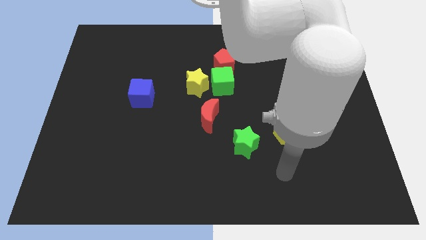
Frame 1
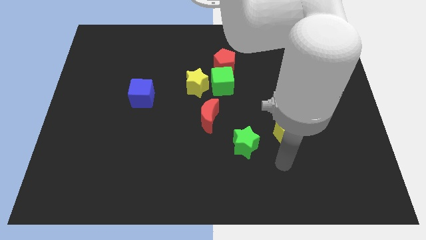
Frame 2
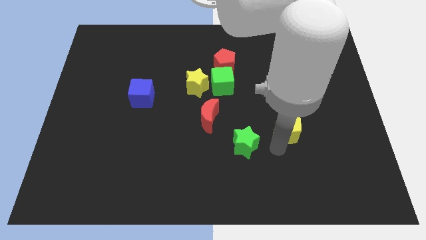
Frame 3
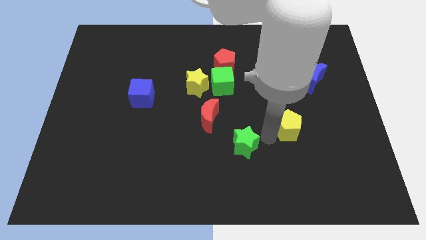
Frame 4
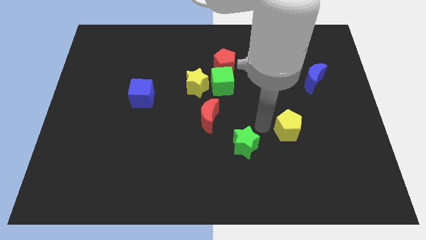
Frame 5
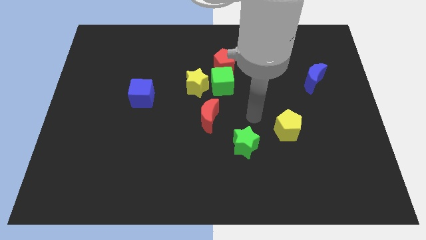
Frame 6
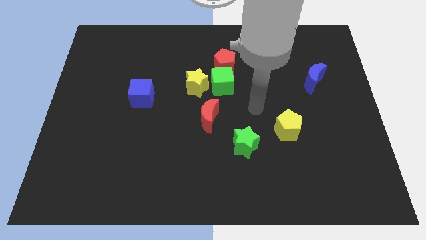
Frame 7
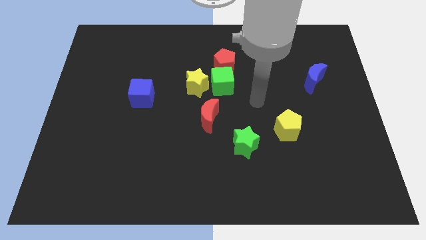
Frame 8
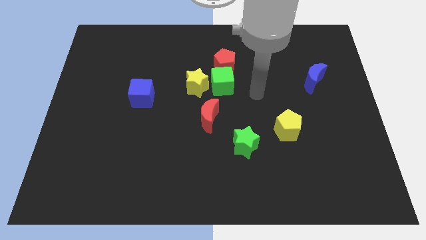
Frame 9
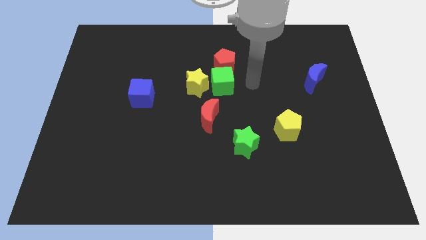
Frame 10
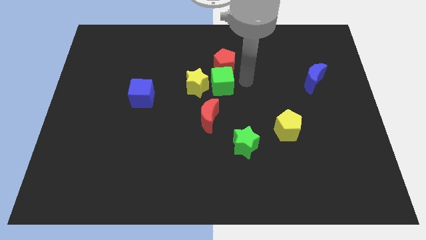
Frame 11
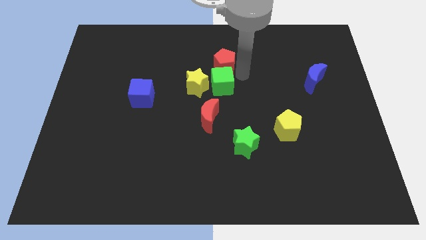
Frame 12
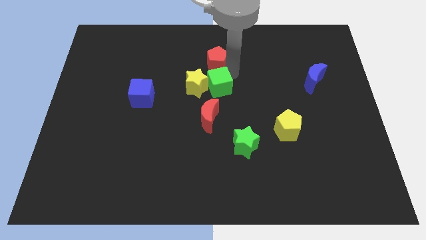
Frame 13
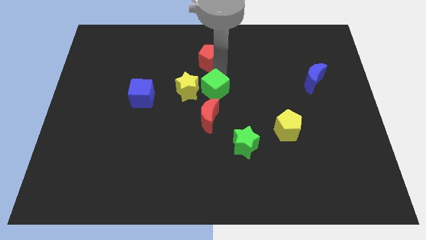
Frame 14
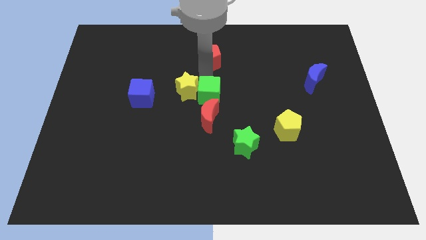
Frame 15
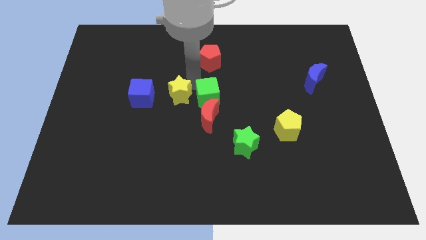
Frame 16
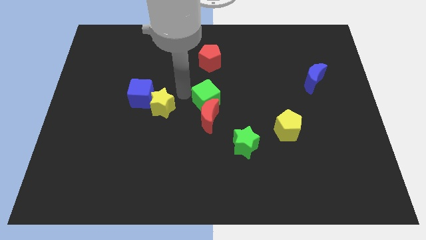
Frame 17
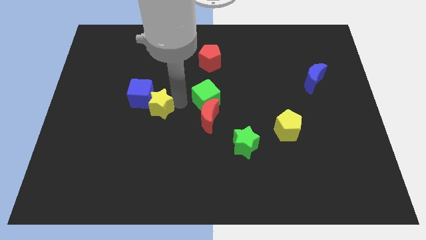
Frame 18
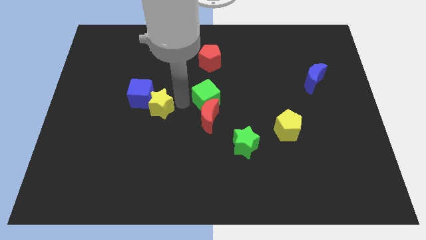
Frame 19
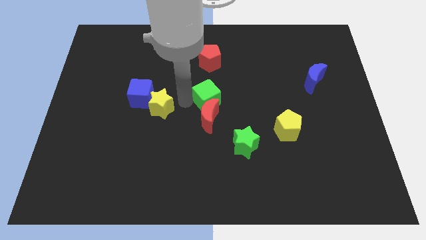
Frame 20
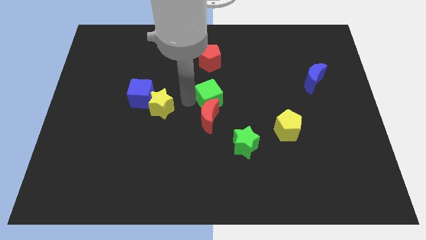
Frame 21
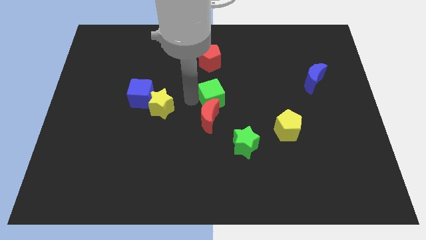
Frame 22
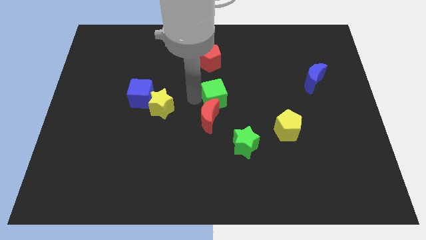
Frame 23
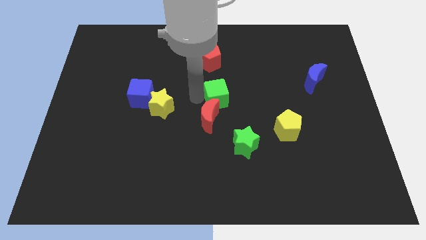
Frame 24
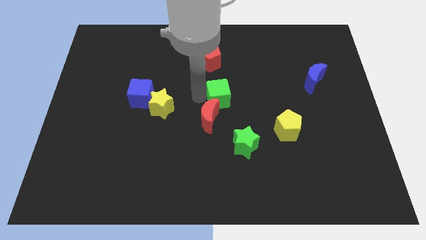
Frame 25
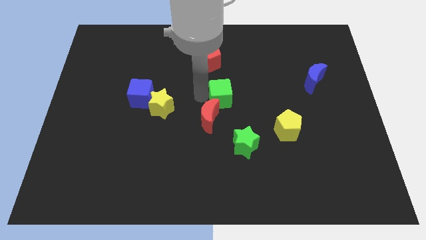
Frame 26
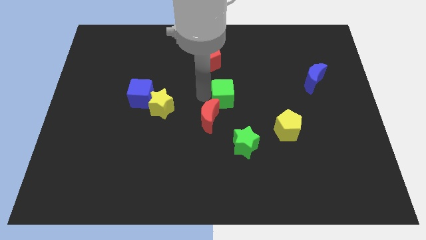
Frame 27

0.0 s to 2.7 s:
move the green cube away from the red pentagon and yellow star

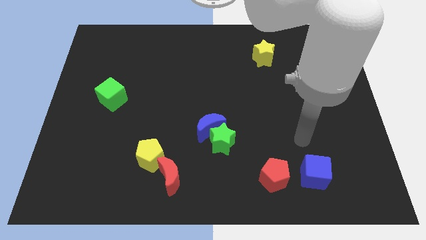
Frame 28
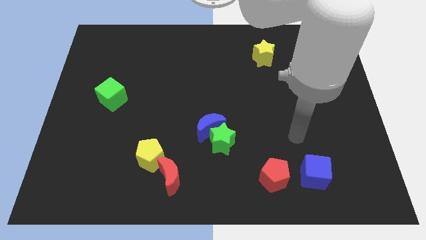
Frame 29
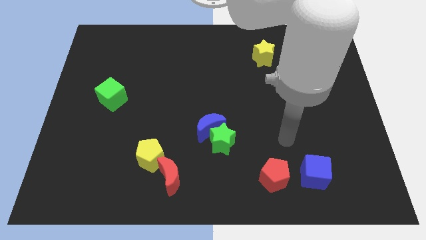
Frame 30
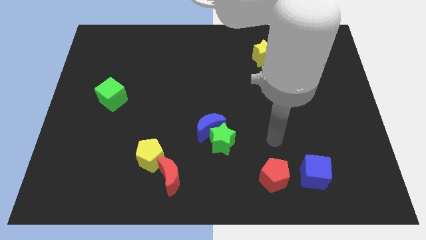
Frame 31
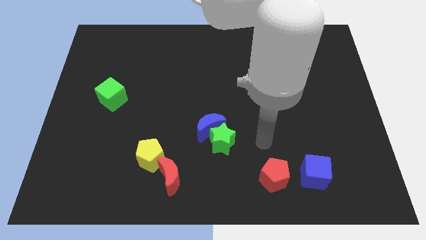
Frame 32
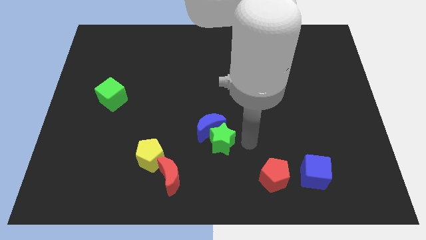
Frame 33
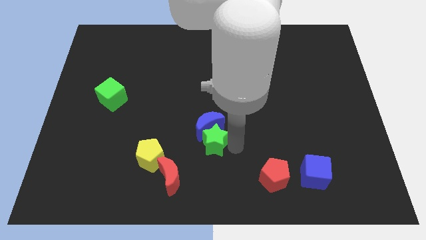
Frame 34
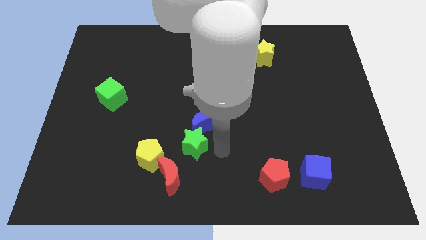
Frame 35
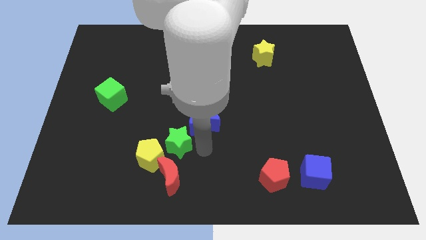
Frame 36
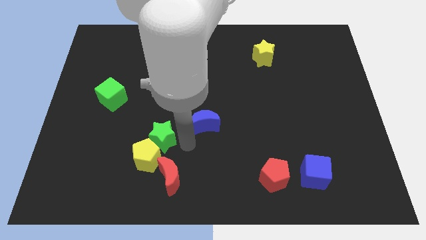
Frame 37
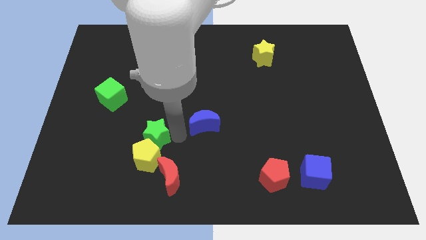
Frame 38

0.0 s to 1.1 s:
separate the blue moon from the green star

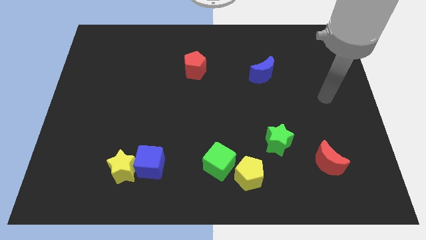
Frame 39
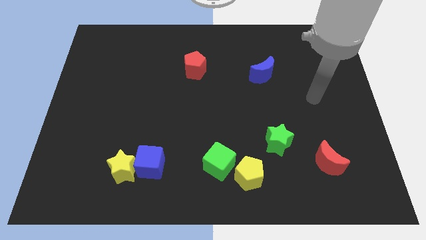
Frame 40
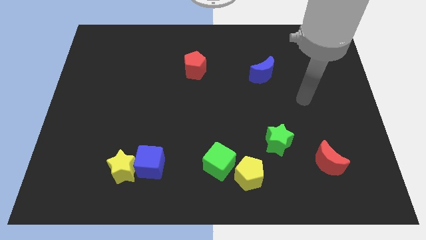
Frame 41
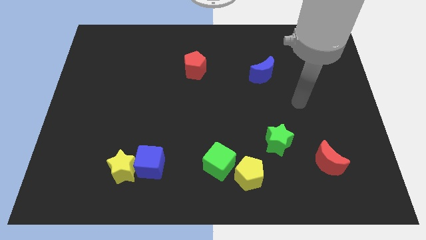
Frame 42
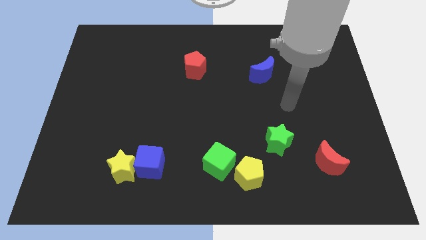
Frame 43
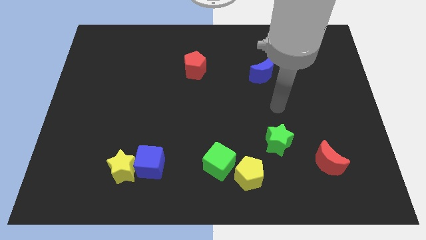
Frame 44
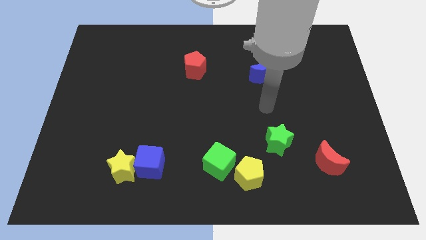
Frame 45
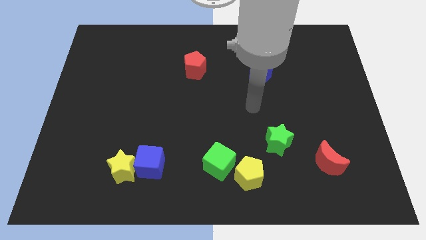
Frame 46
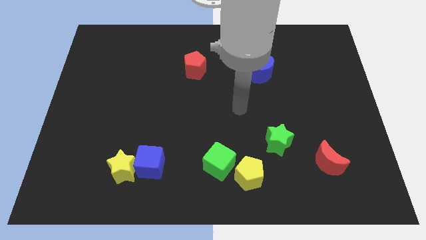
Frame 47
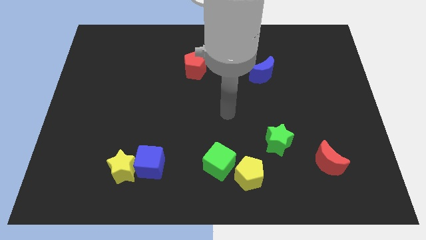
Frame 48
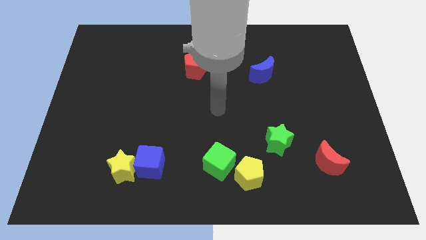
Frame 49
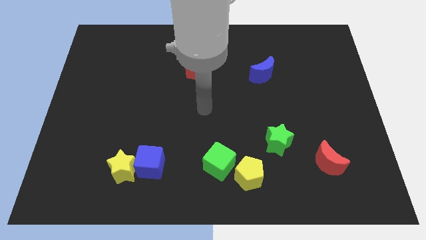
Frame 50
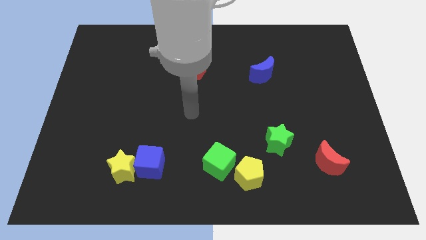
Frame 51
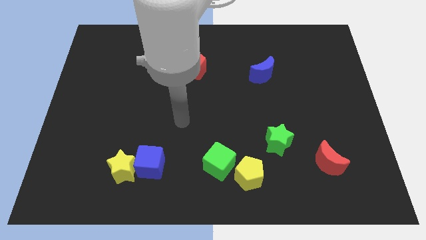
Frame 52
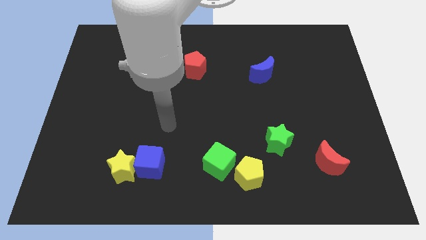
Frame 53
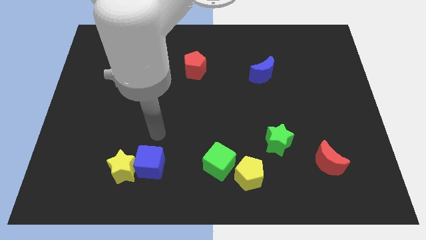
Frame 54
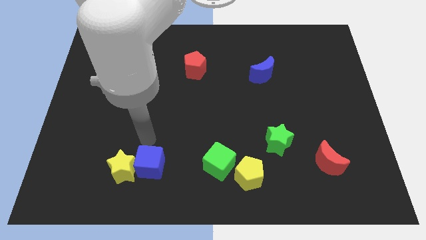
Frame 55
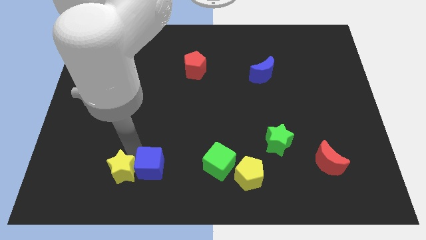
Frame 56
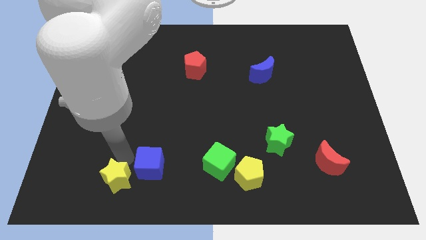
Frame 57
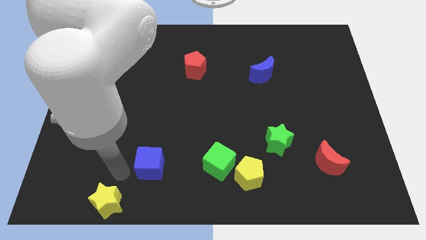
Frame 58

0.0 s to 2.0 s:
move the blue cube away from the yellow star

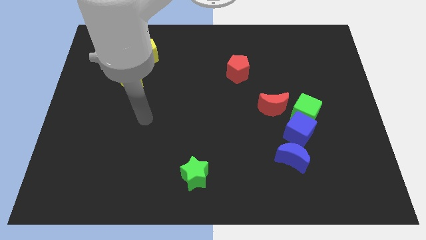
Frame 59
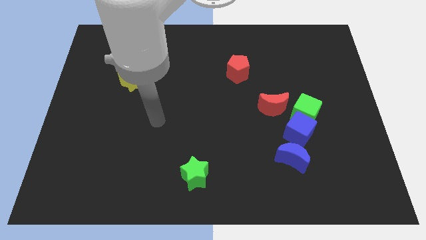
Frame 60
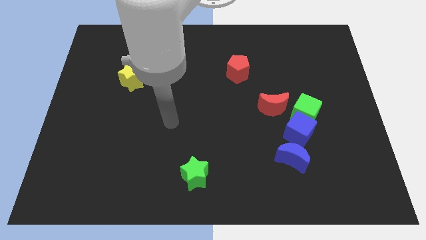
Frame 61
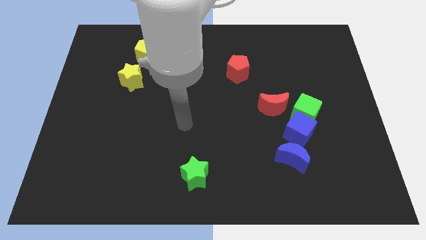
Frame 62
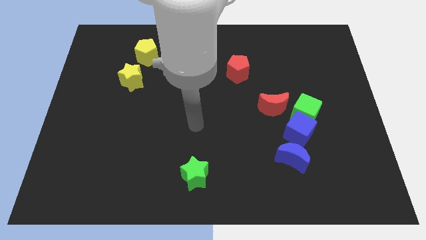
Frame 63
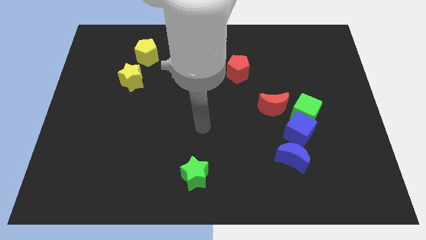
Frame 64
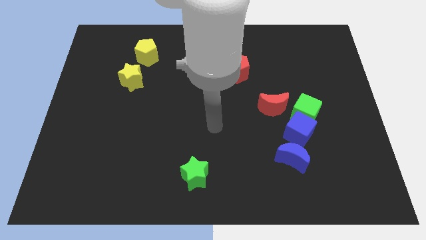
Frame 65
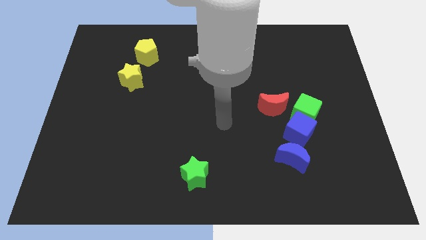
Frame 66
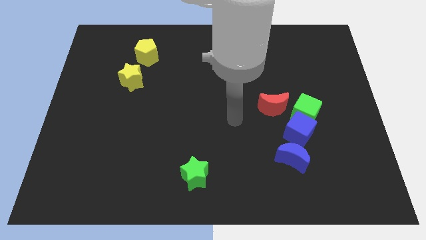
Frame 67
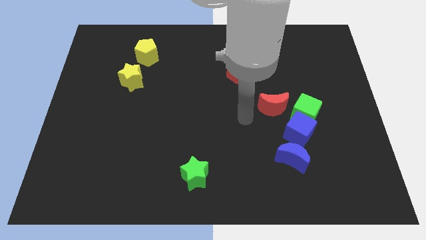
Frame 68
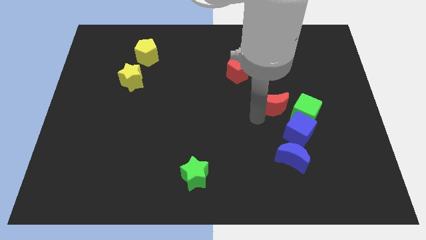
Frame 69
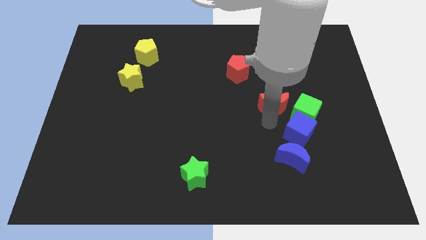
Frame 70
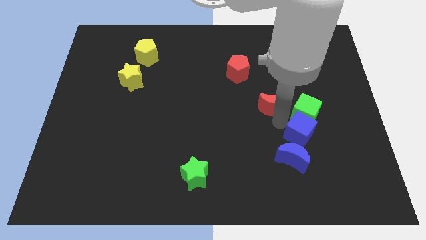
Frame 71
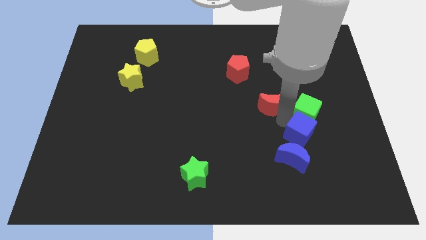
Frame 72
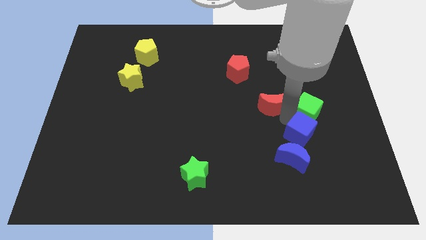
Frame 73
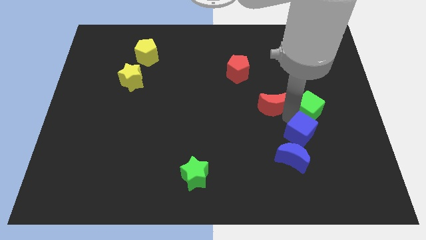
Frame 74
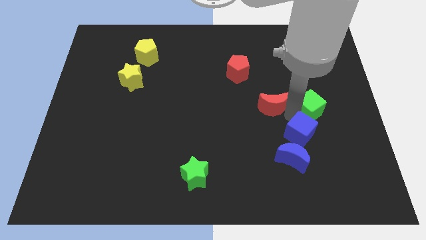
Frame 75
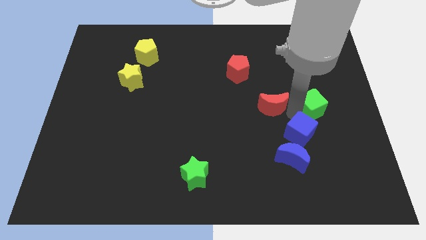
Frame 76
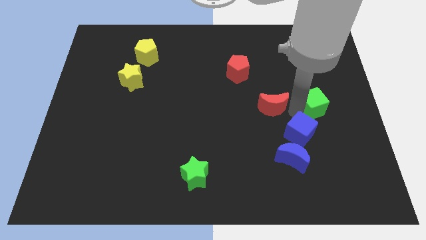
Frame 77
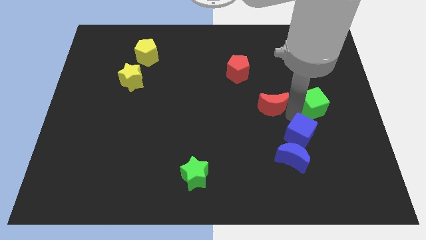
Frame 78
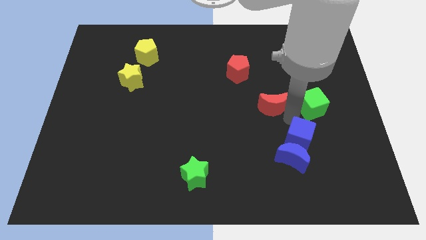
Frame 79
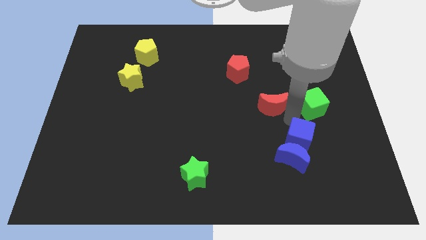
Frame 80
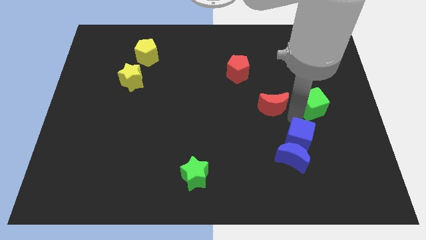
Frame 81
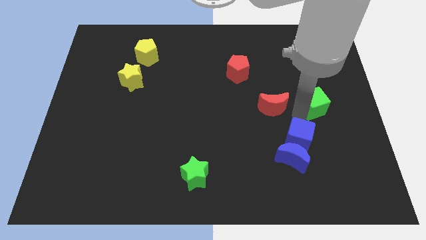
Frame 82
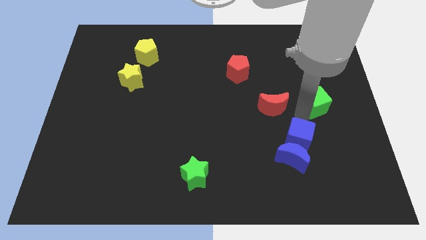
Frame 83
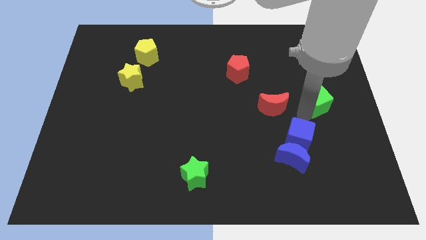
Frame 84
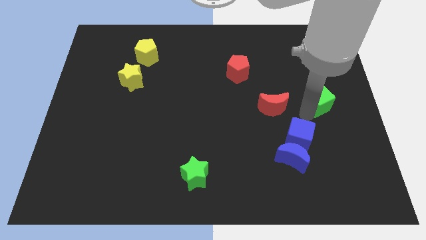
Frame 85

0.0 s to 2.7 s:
pull the green cube apart from the blue cube and red moon

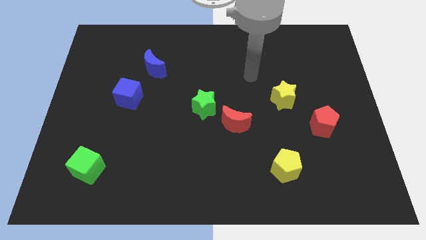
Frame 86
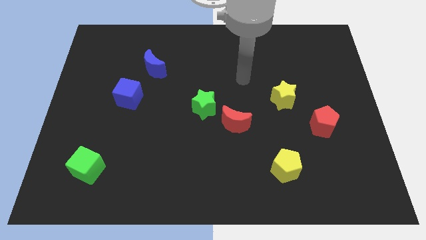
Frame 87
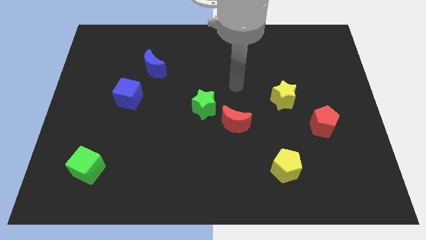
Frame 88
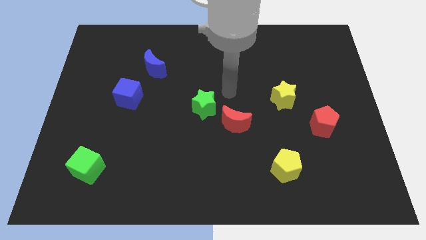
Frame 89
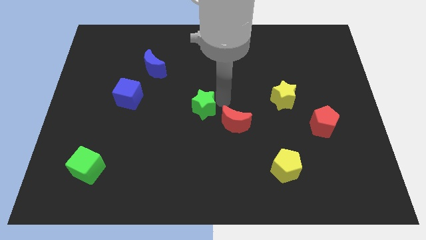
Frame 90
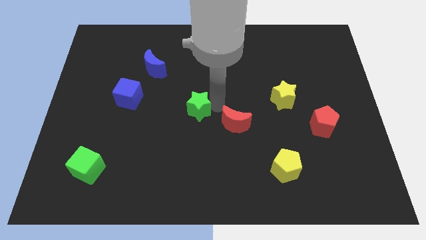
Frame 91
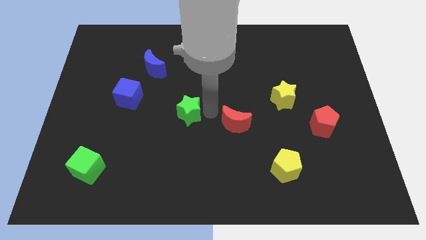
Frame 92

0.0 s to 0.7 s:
move the red moon away from the green star

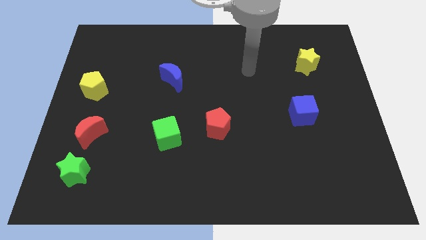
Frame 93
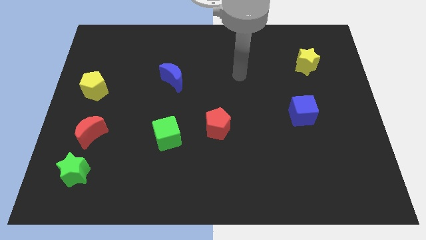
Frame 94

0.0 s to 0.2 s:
pull the red moon apart from the green star

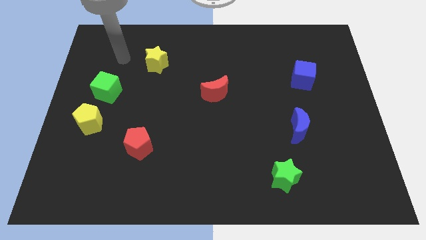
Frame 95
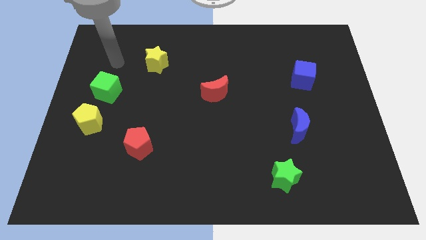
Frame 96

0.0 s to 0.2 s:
pull the green cube apart from the yellow pentagon
